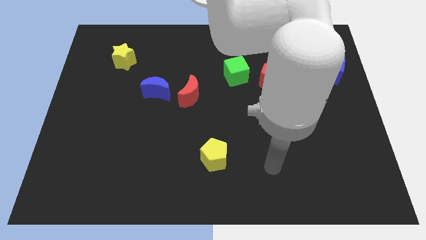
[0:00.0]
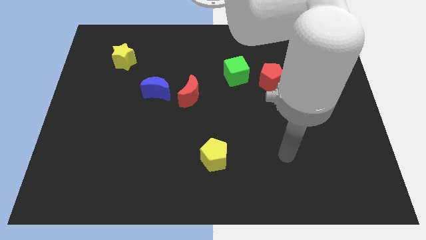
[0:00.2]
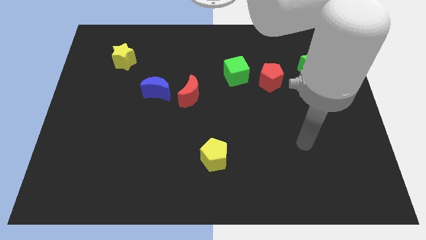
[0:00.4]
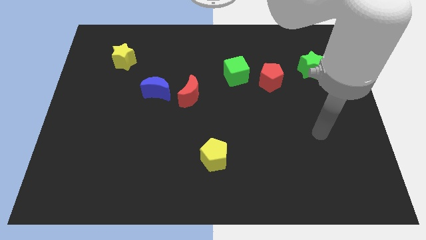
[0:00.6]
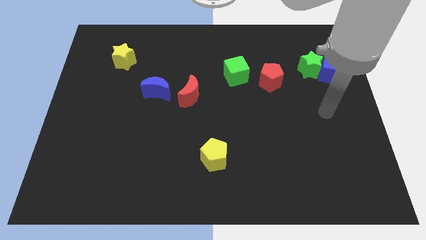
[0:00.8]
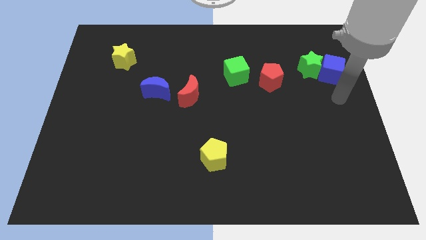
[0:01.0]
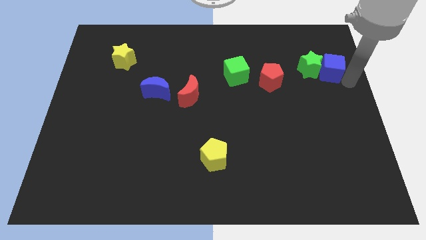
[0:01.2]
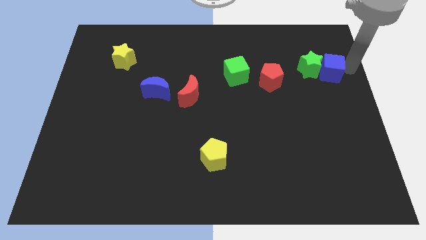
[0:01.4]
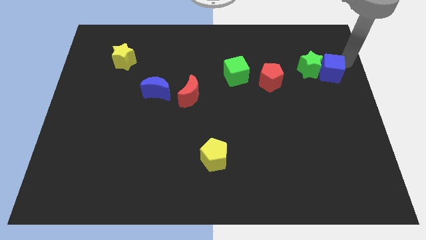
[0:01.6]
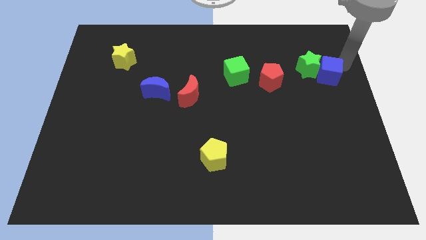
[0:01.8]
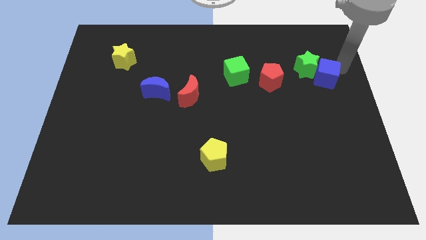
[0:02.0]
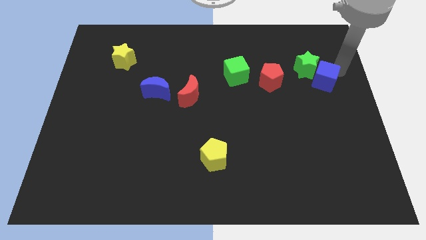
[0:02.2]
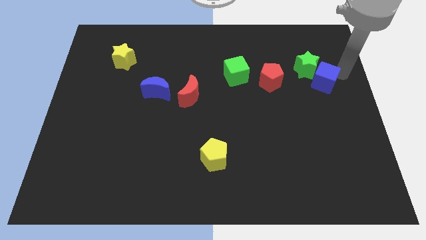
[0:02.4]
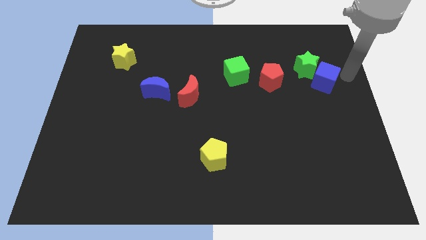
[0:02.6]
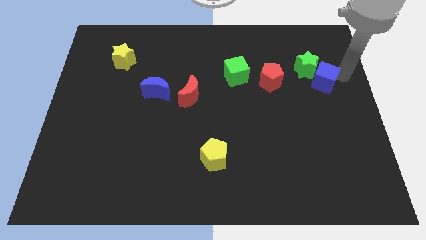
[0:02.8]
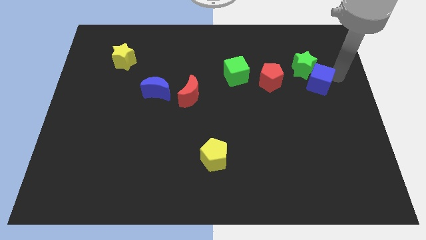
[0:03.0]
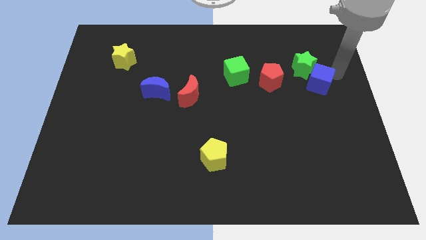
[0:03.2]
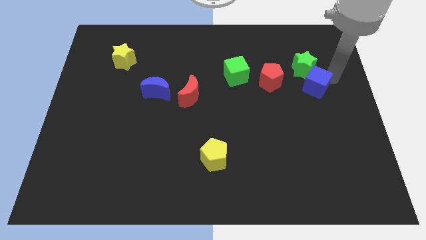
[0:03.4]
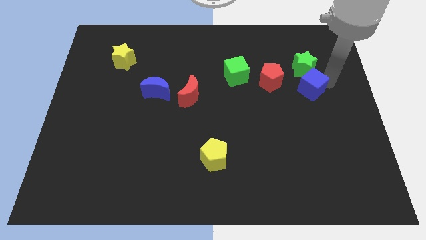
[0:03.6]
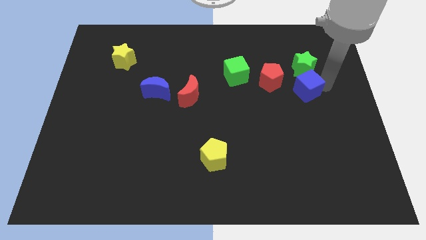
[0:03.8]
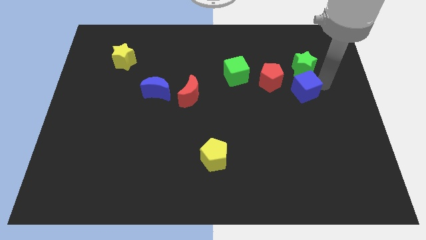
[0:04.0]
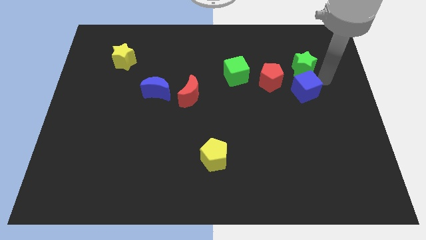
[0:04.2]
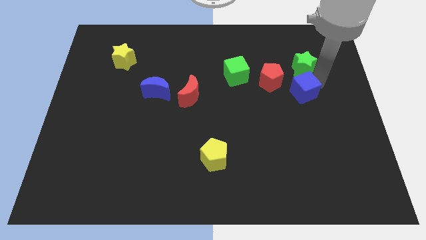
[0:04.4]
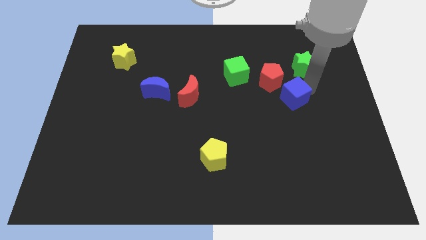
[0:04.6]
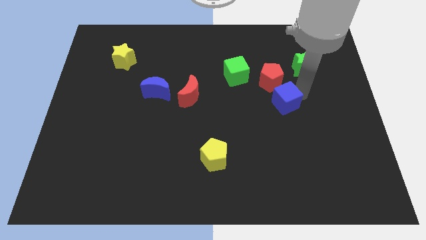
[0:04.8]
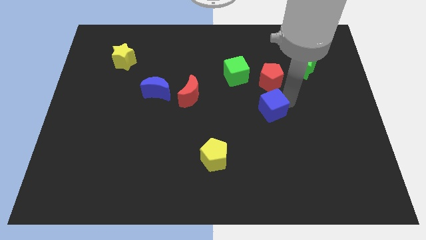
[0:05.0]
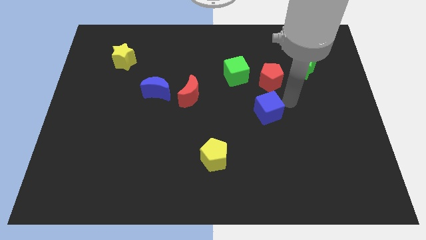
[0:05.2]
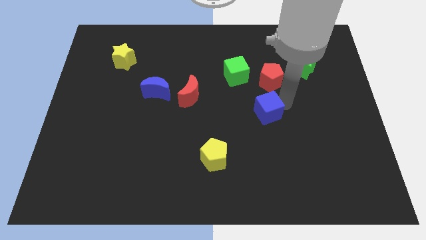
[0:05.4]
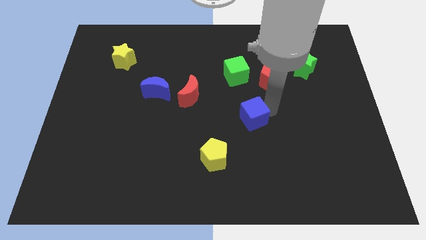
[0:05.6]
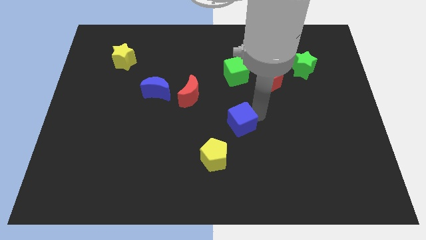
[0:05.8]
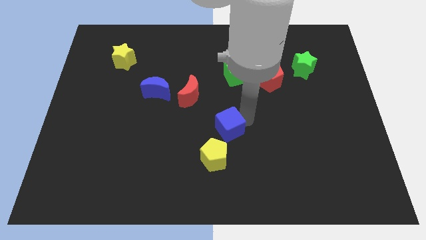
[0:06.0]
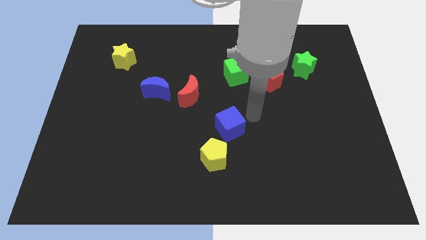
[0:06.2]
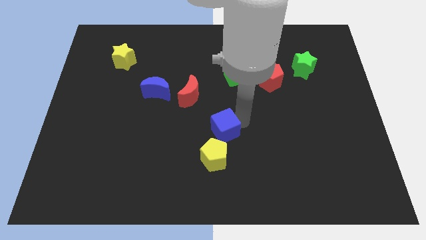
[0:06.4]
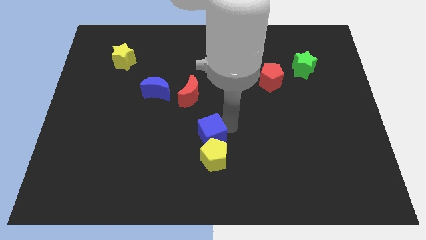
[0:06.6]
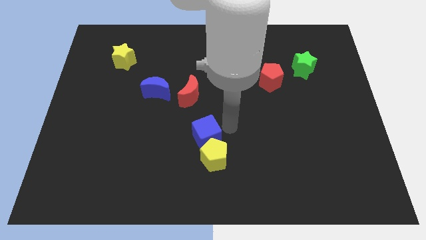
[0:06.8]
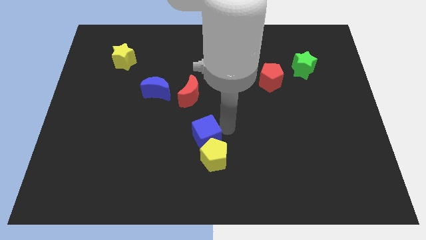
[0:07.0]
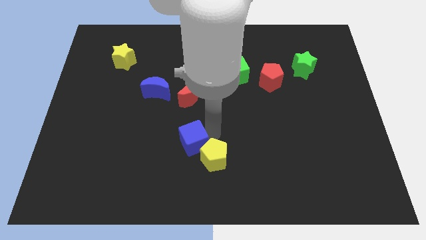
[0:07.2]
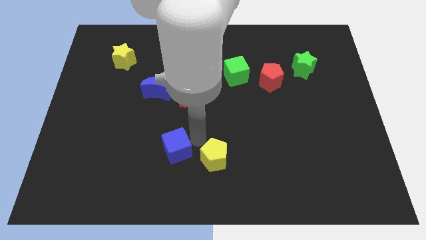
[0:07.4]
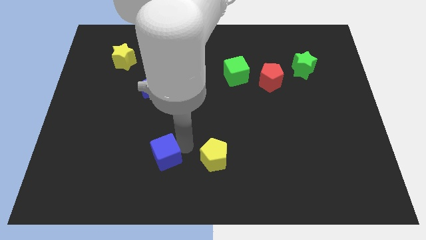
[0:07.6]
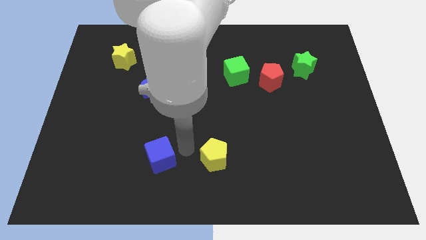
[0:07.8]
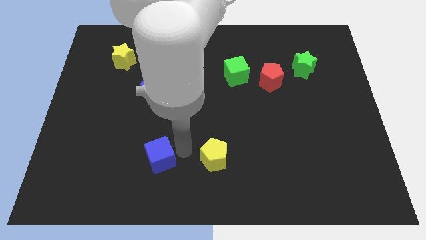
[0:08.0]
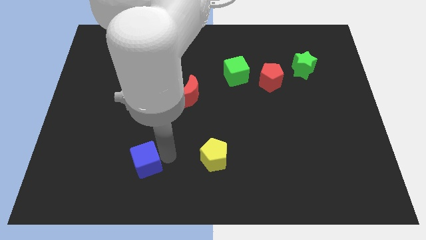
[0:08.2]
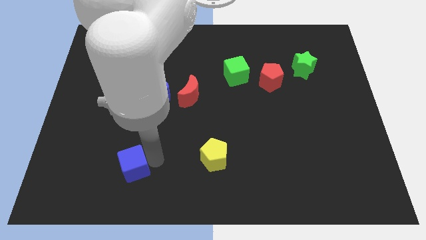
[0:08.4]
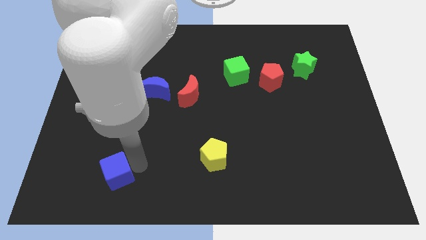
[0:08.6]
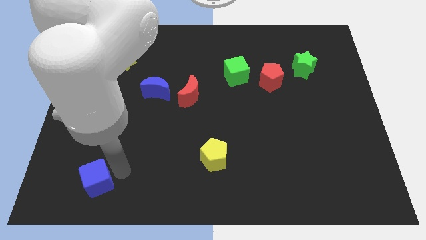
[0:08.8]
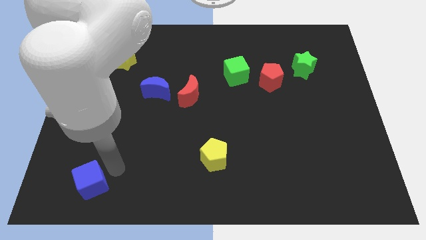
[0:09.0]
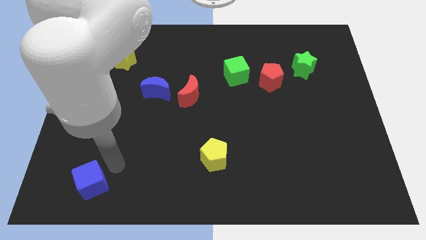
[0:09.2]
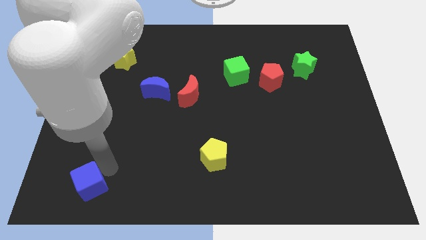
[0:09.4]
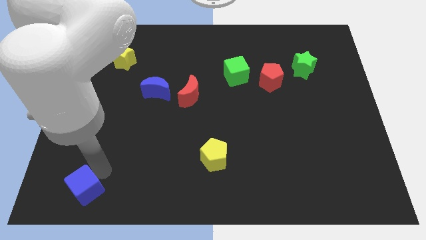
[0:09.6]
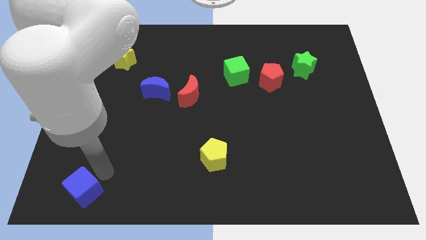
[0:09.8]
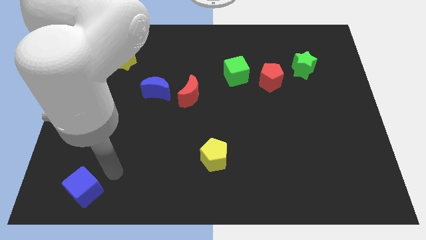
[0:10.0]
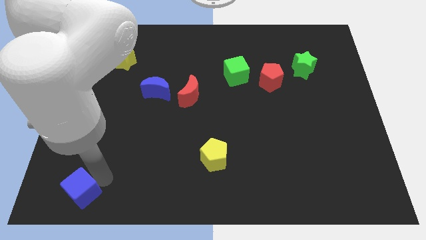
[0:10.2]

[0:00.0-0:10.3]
put the blue cube to the bottom left corner

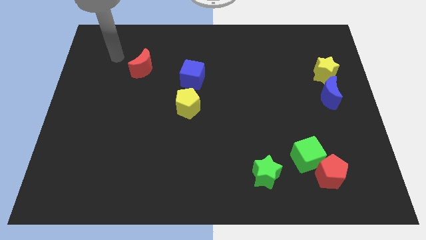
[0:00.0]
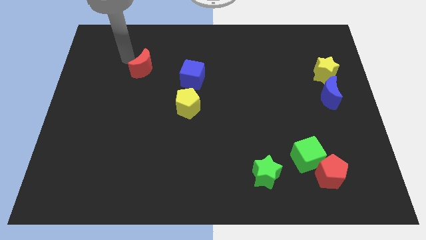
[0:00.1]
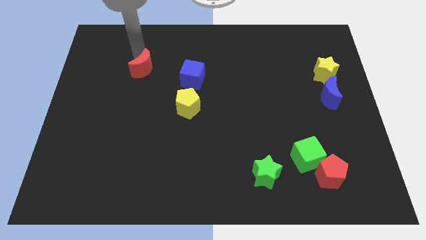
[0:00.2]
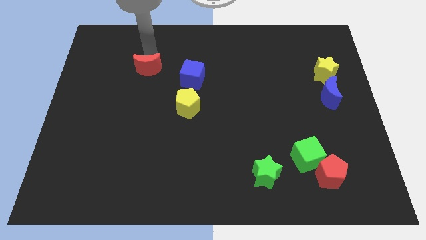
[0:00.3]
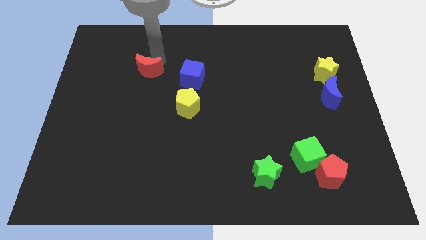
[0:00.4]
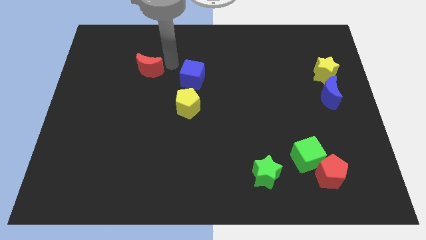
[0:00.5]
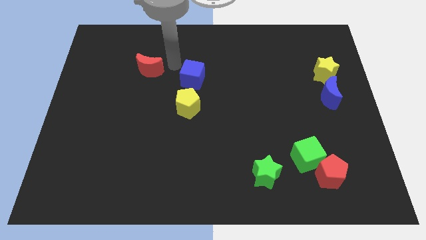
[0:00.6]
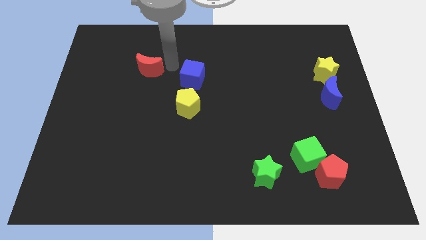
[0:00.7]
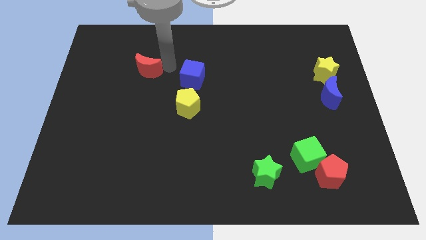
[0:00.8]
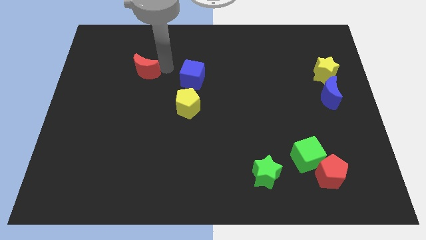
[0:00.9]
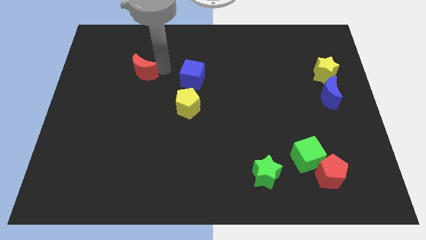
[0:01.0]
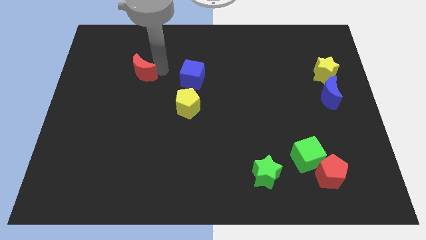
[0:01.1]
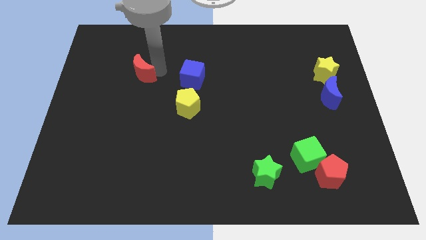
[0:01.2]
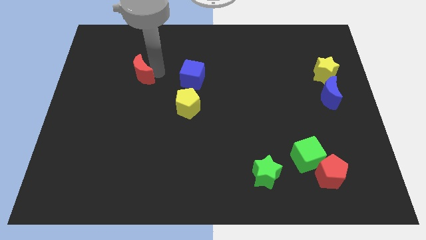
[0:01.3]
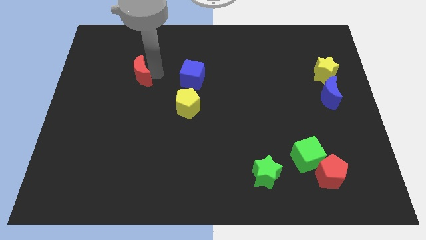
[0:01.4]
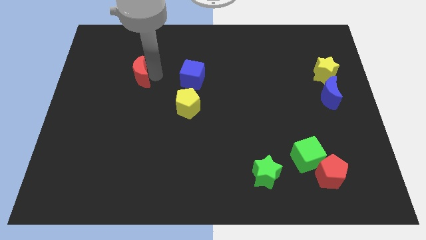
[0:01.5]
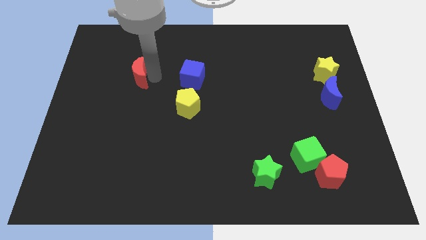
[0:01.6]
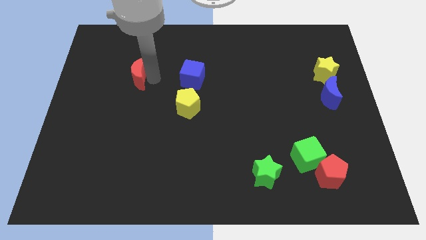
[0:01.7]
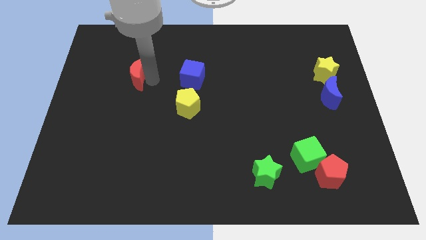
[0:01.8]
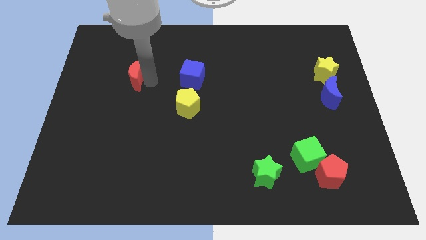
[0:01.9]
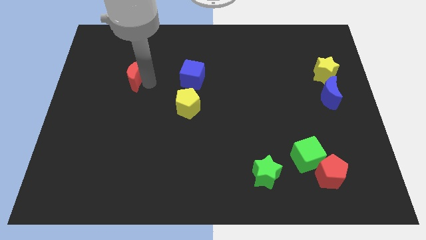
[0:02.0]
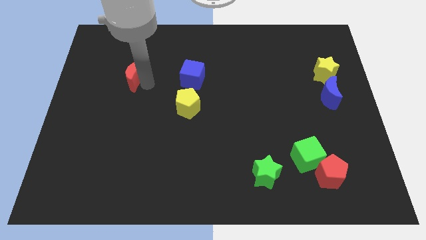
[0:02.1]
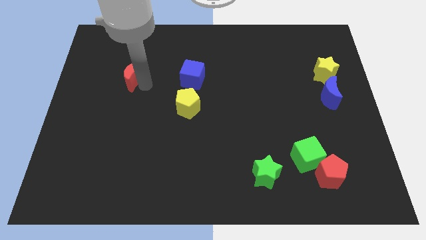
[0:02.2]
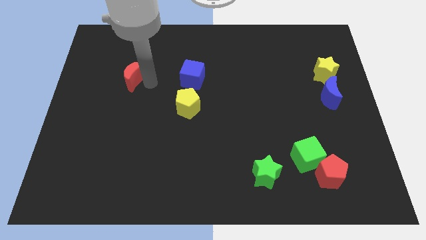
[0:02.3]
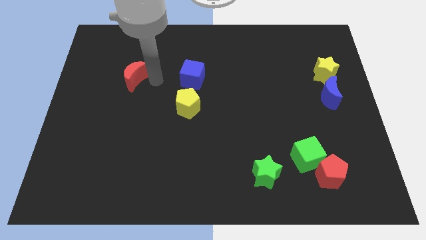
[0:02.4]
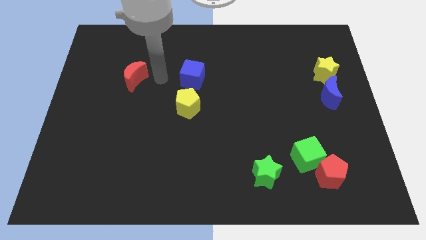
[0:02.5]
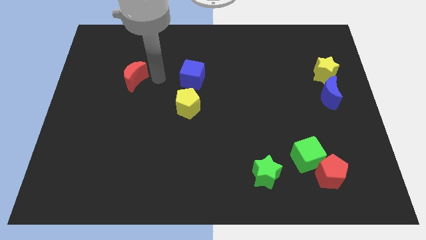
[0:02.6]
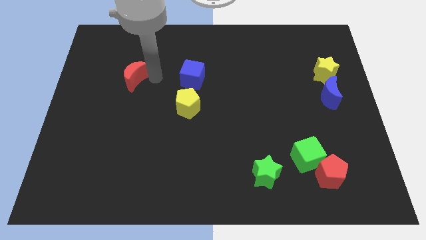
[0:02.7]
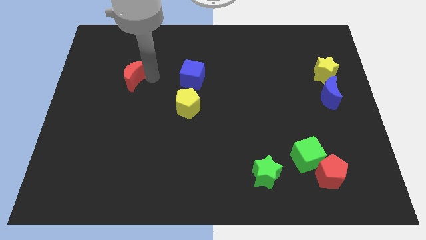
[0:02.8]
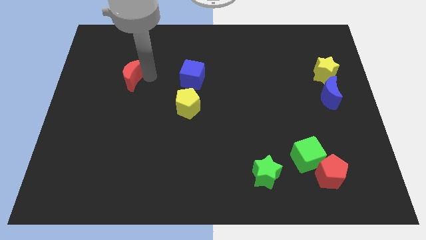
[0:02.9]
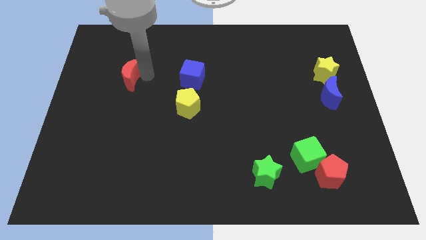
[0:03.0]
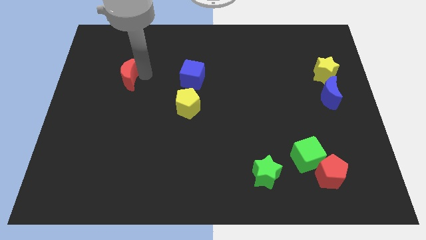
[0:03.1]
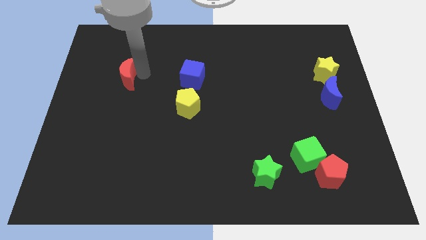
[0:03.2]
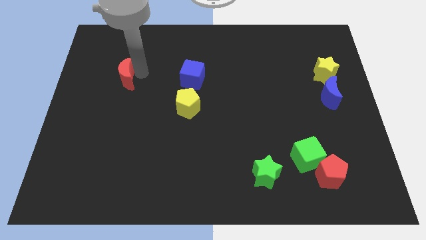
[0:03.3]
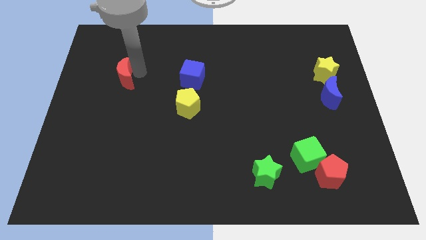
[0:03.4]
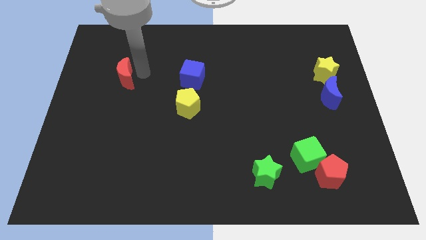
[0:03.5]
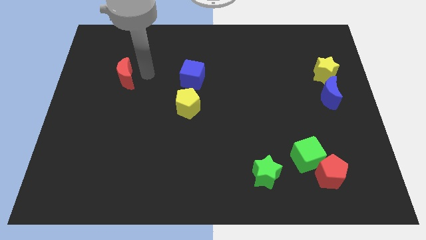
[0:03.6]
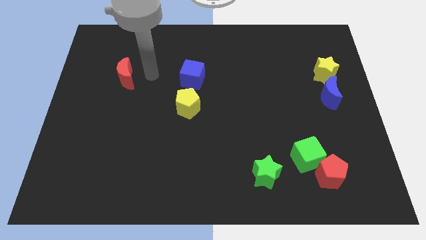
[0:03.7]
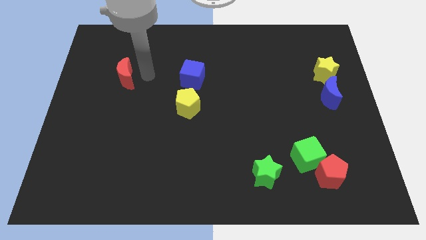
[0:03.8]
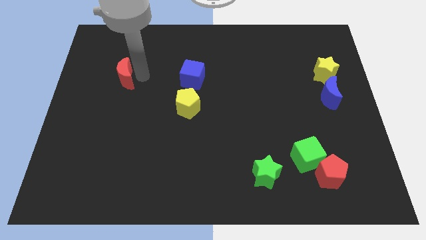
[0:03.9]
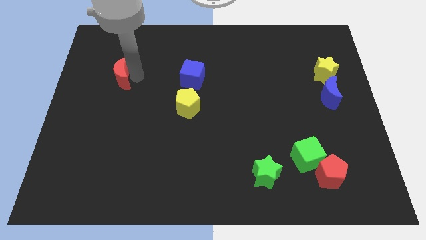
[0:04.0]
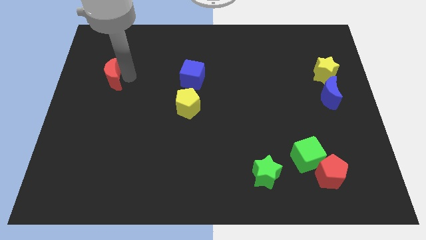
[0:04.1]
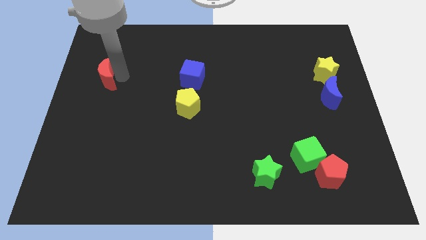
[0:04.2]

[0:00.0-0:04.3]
slide the red moon to the center left
